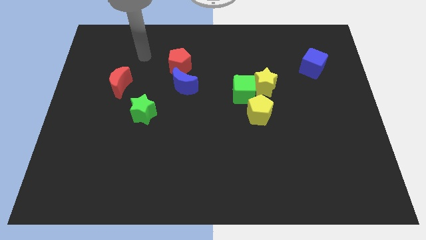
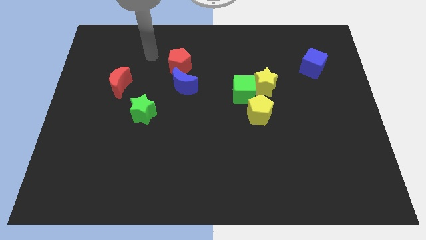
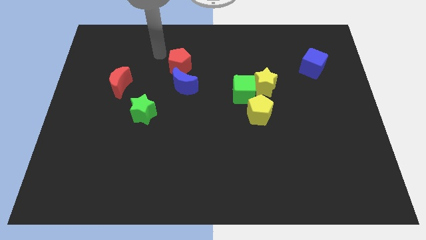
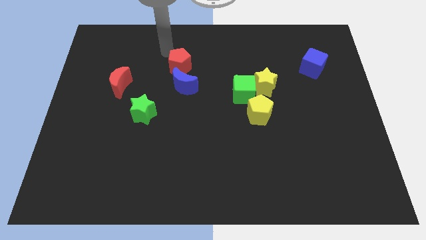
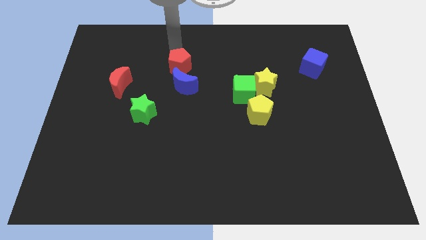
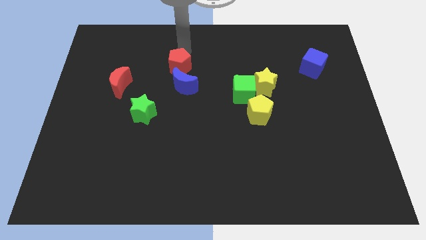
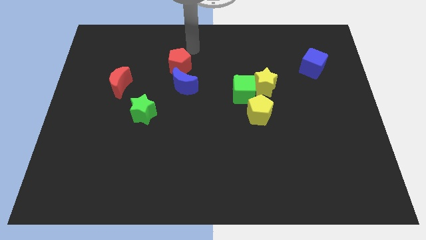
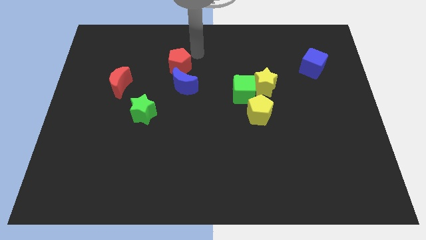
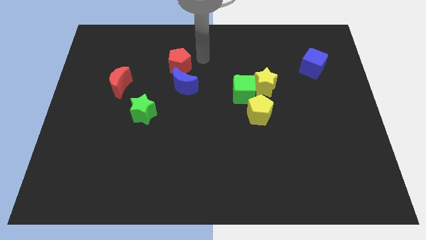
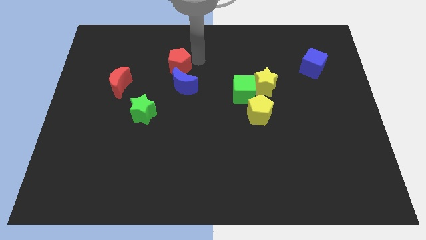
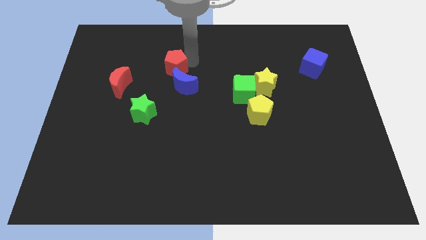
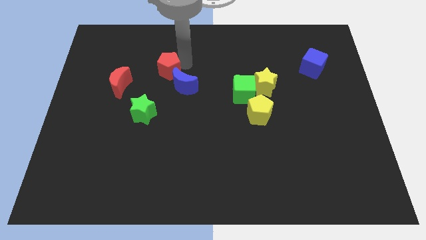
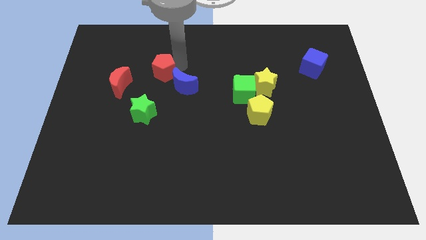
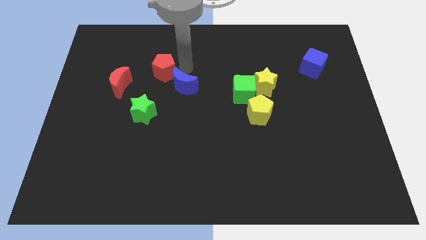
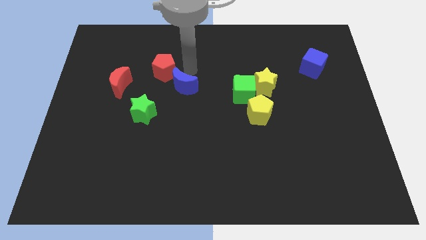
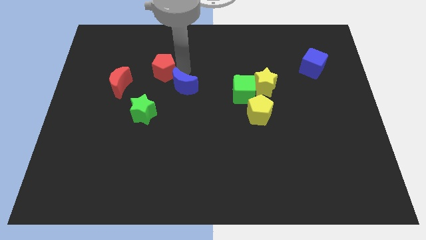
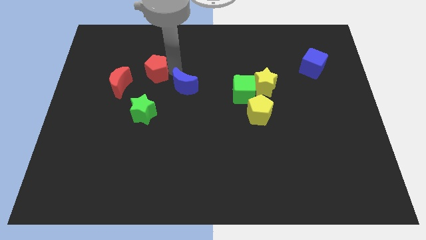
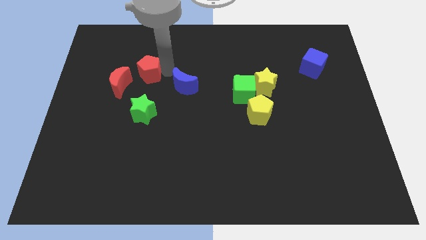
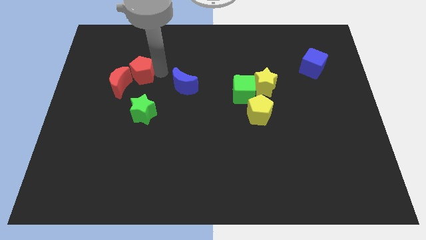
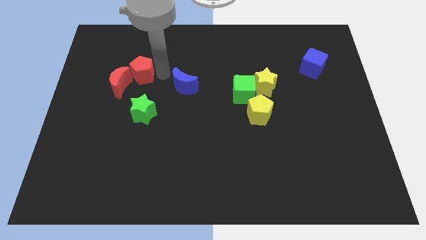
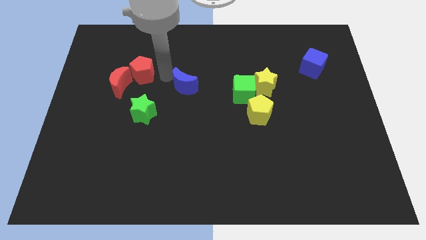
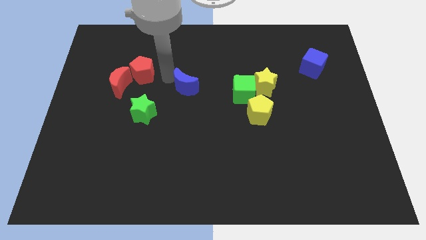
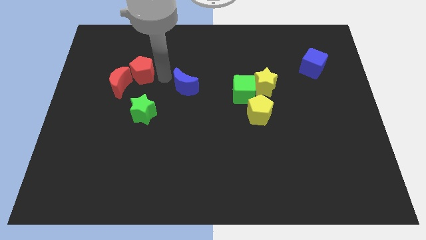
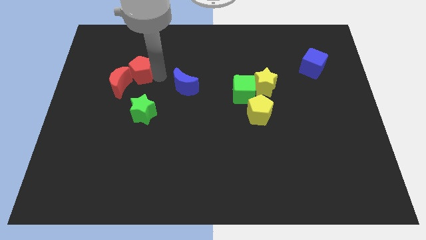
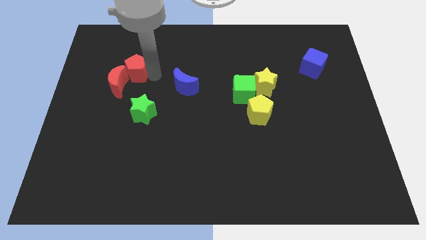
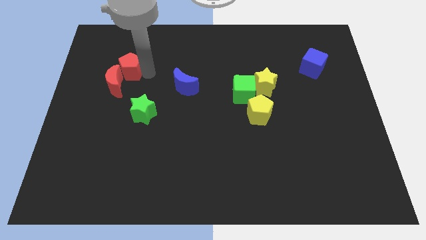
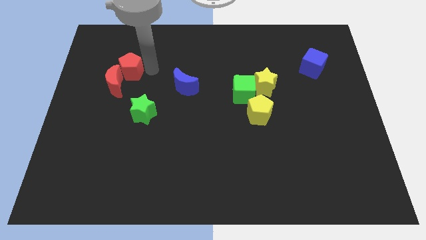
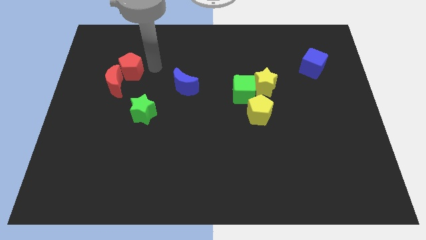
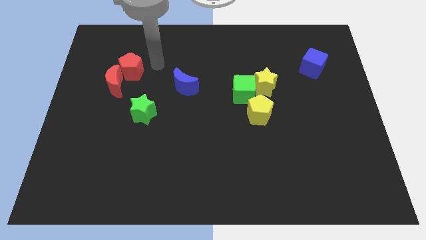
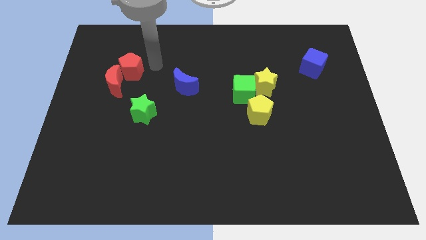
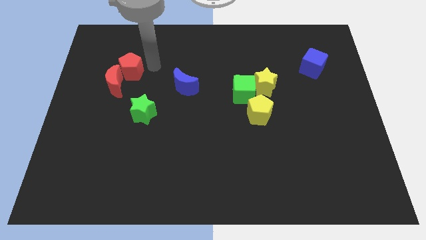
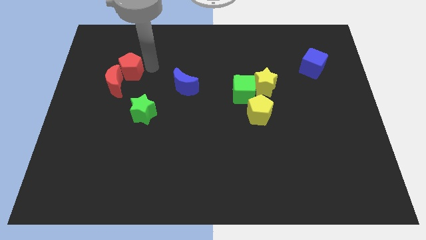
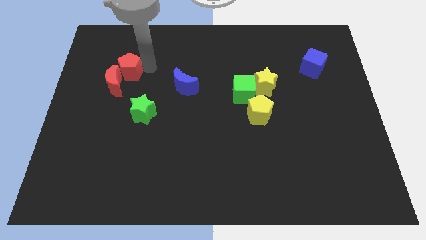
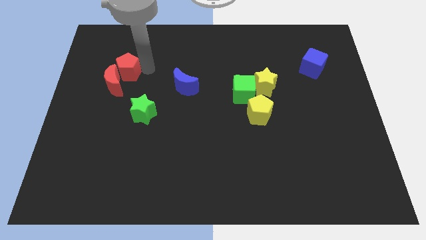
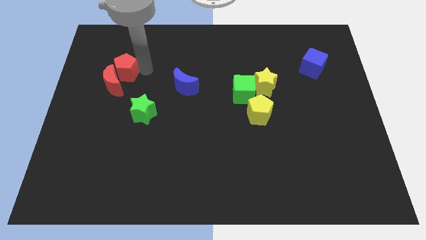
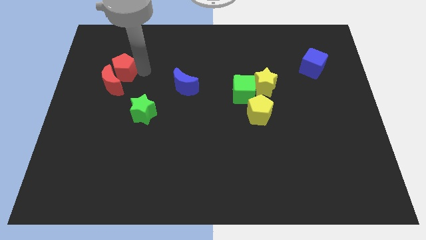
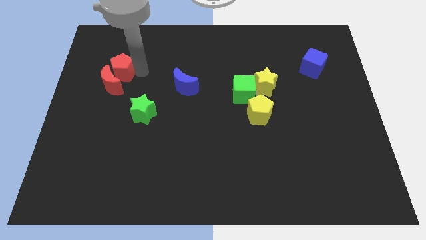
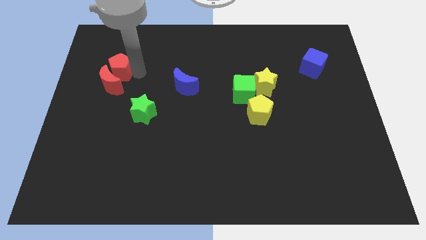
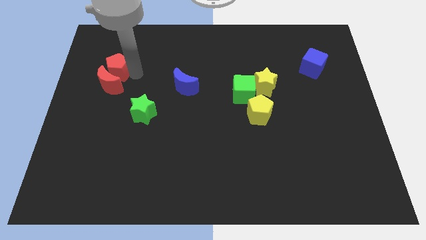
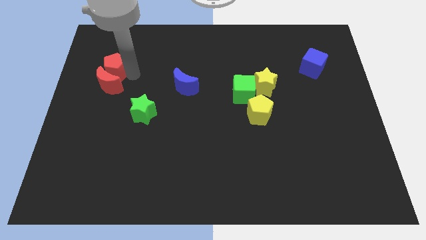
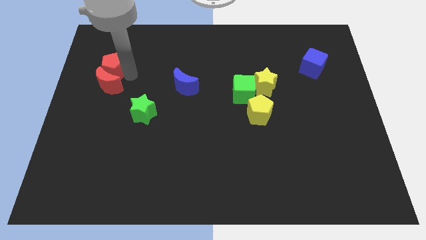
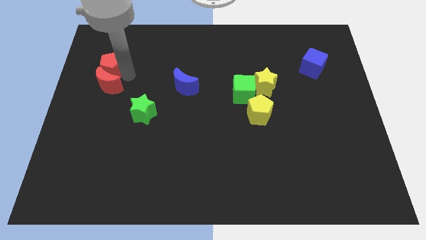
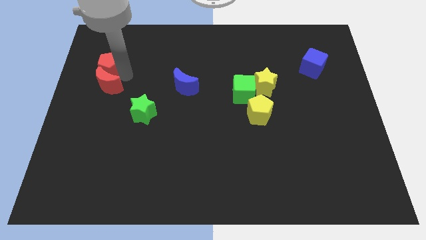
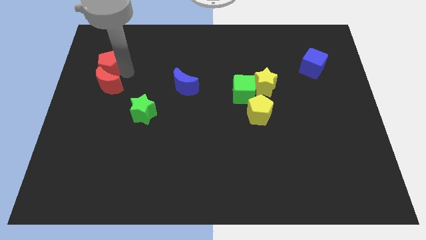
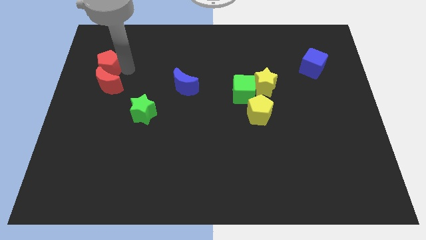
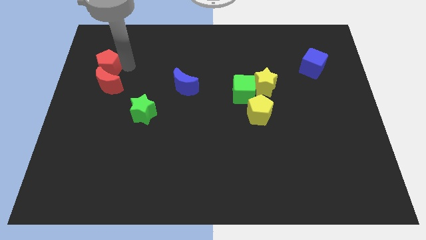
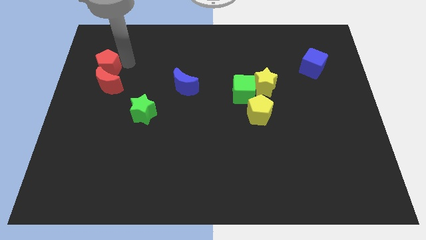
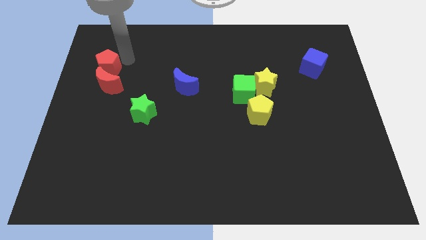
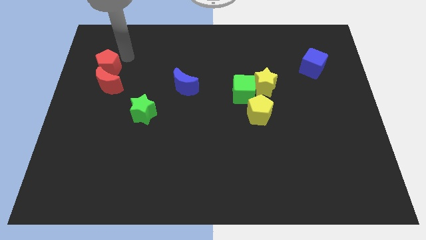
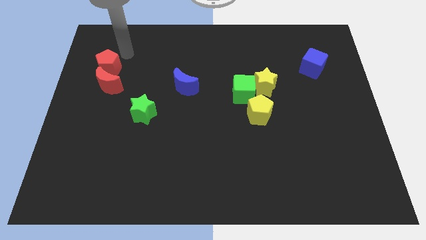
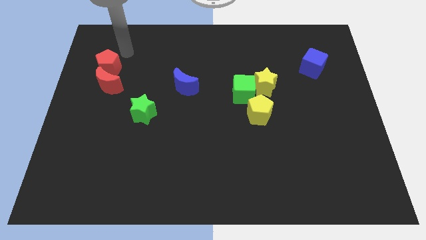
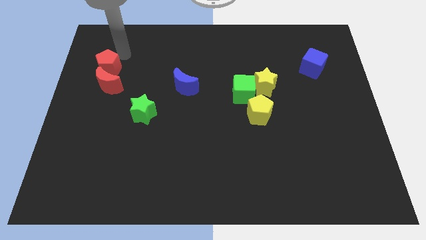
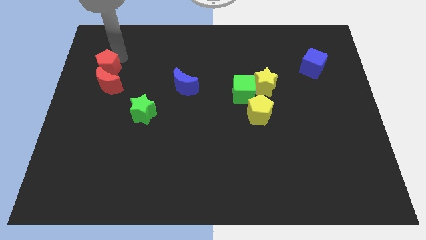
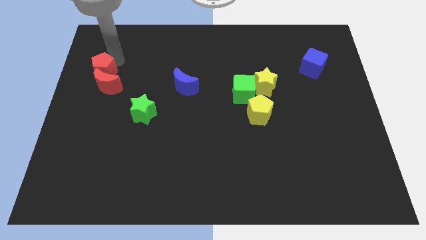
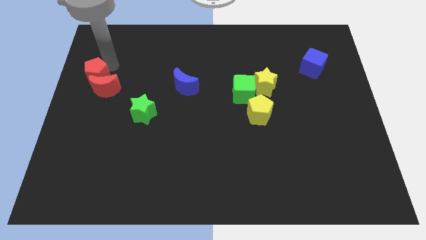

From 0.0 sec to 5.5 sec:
slide the red pentagon to the center left
